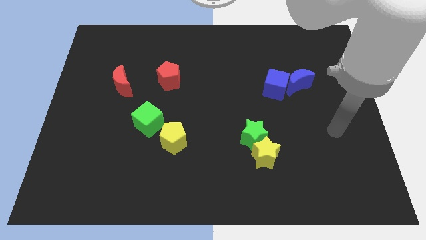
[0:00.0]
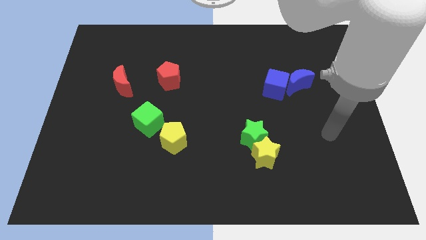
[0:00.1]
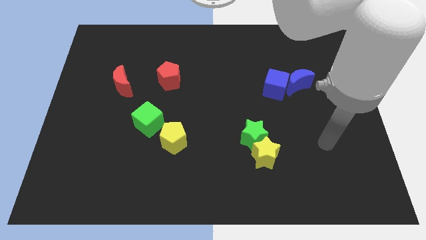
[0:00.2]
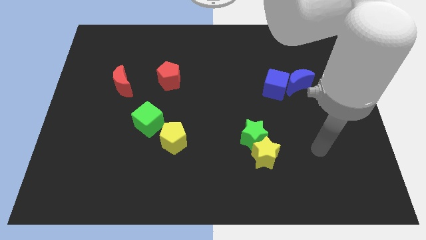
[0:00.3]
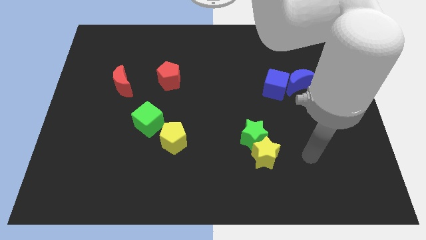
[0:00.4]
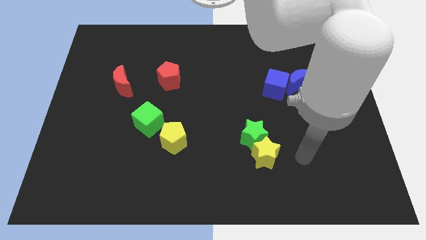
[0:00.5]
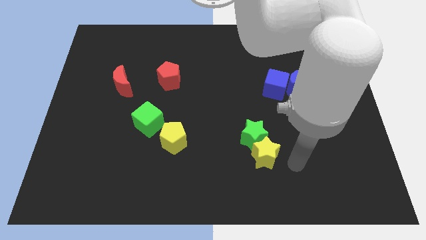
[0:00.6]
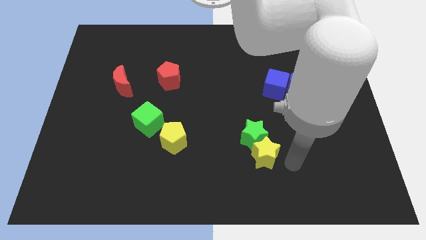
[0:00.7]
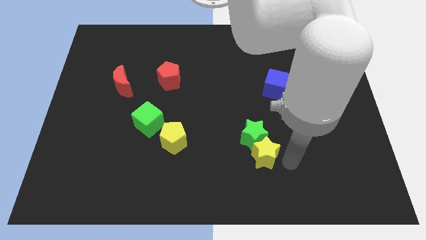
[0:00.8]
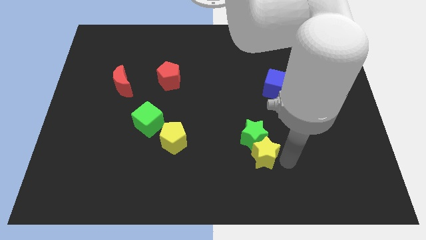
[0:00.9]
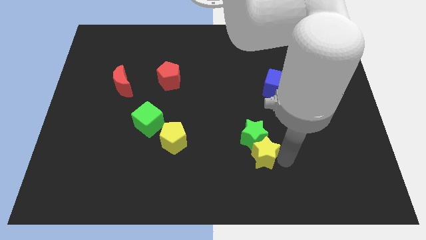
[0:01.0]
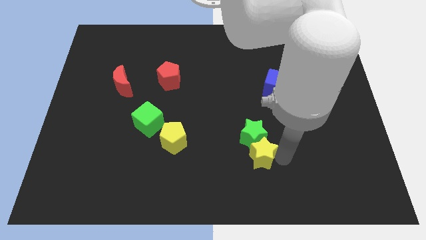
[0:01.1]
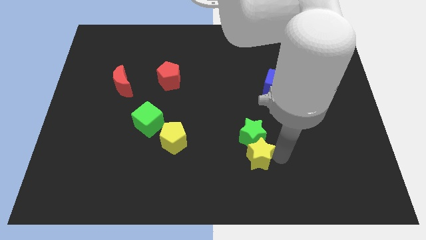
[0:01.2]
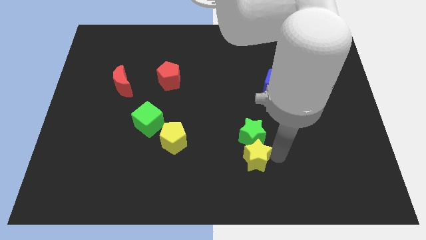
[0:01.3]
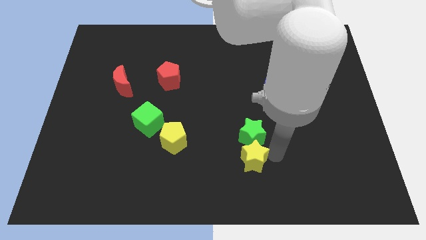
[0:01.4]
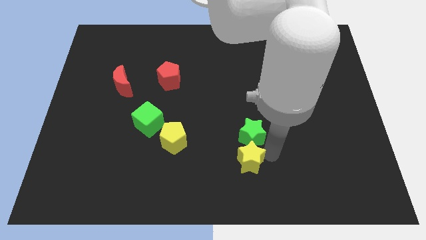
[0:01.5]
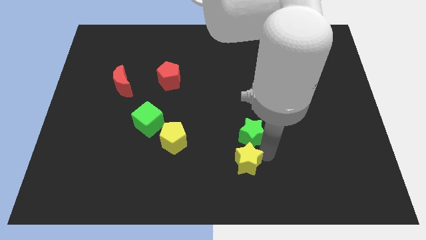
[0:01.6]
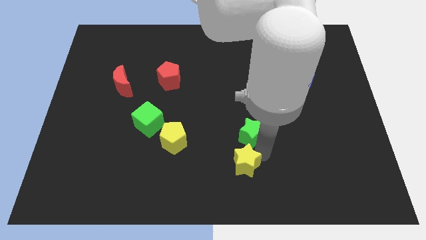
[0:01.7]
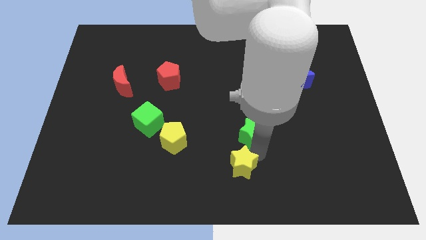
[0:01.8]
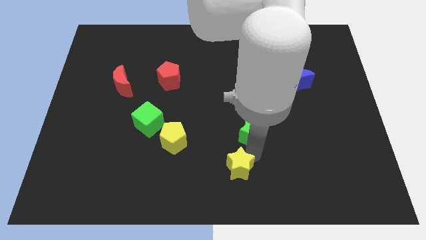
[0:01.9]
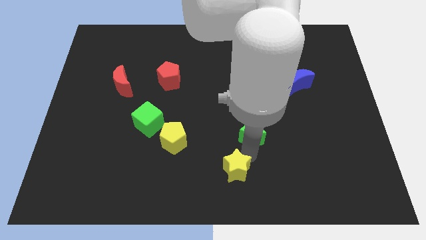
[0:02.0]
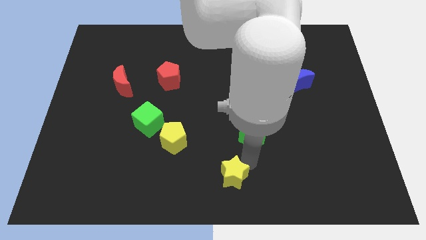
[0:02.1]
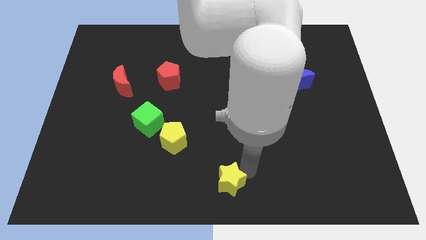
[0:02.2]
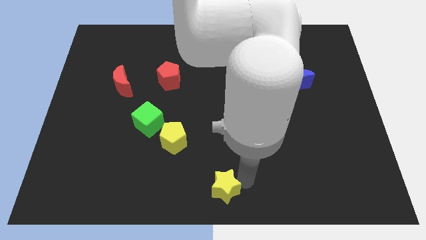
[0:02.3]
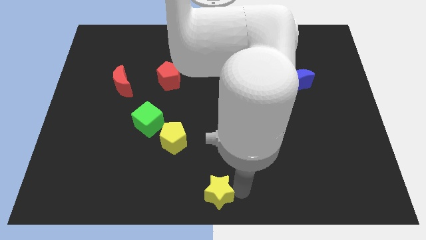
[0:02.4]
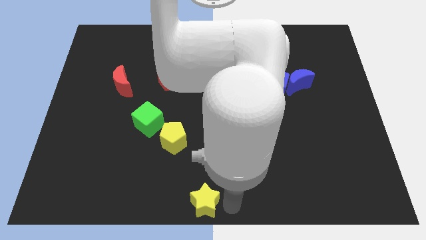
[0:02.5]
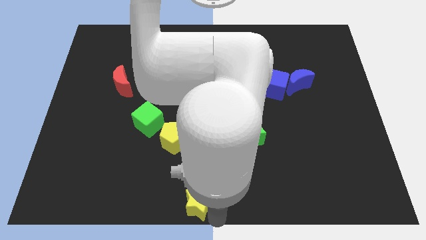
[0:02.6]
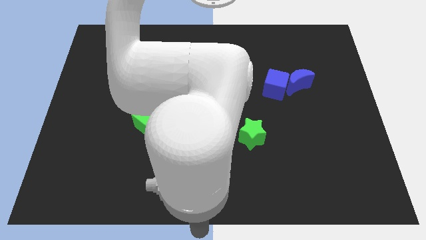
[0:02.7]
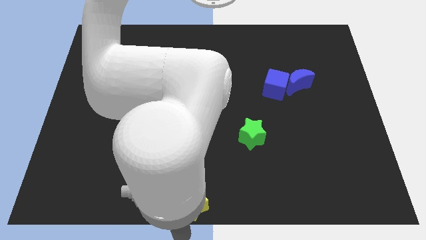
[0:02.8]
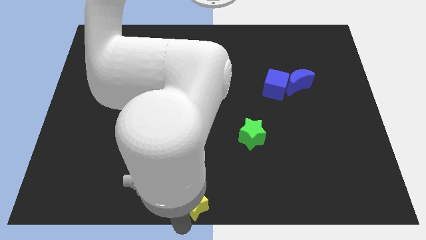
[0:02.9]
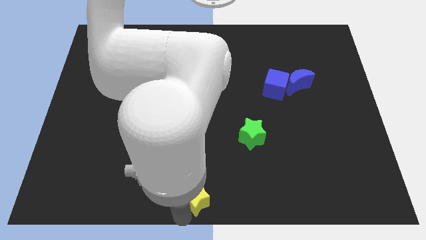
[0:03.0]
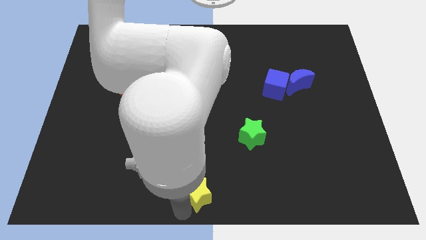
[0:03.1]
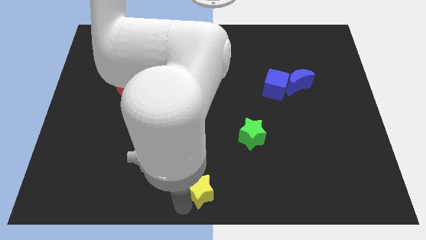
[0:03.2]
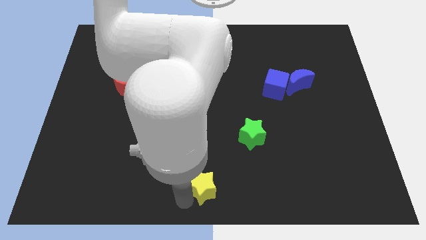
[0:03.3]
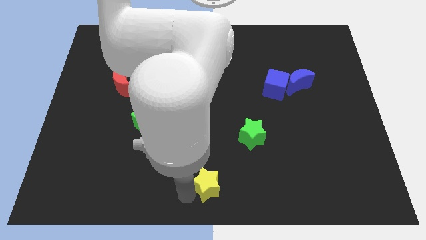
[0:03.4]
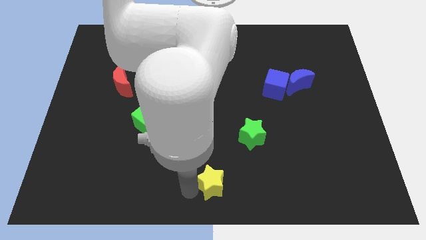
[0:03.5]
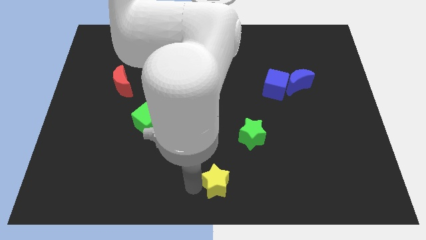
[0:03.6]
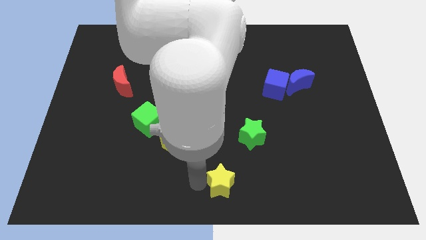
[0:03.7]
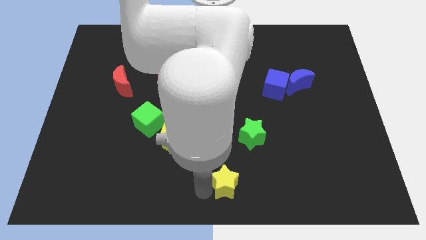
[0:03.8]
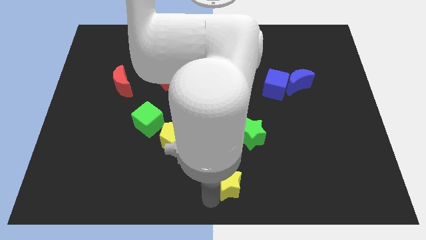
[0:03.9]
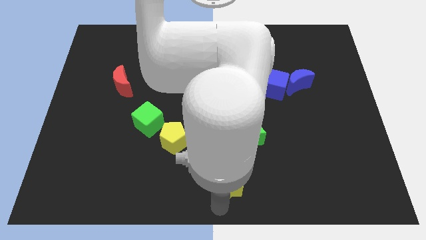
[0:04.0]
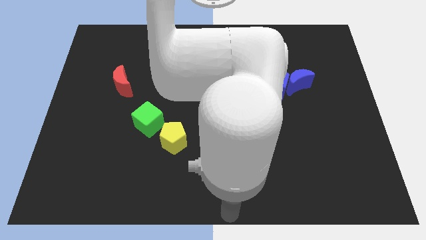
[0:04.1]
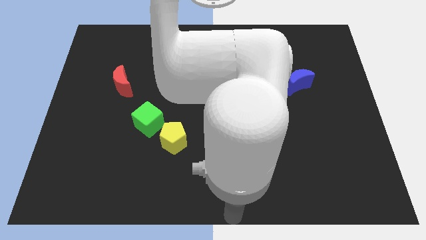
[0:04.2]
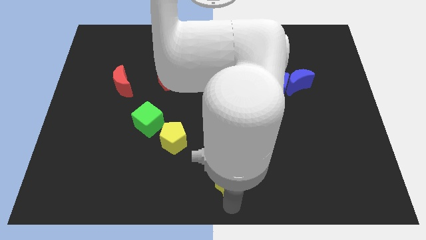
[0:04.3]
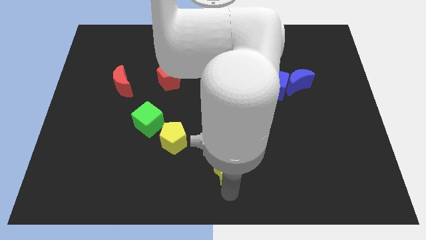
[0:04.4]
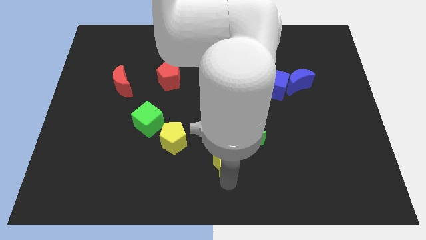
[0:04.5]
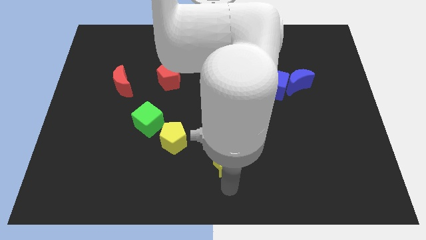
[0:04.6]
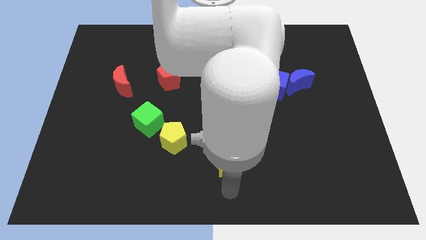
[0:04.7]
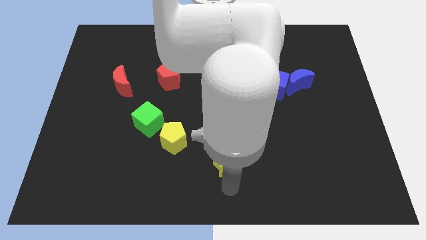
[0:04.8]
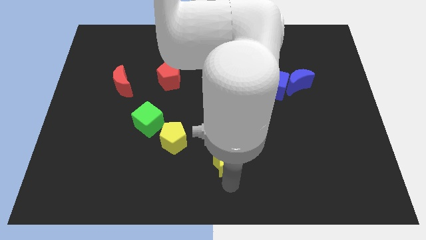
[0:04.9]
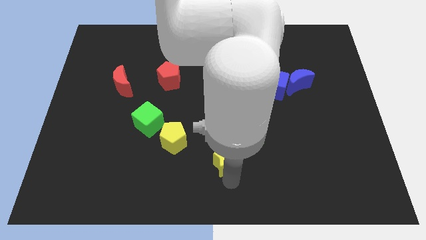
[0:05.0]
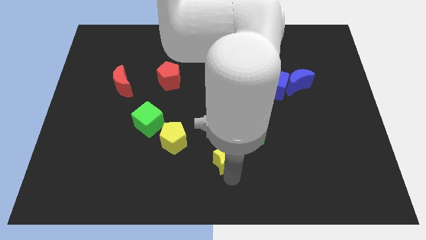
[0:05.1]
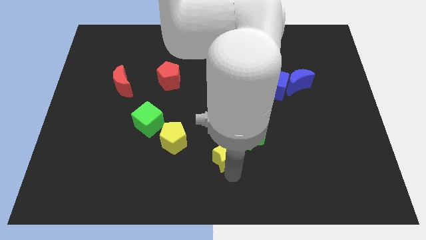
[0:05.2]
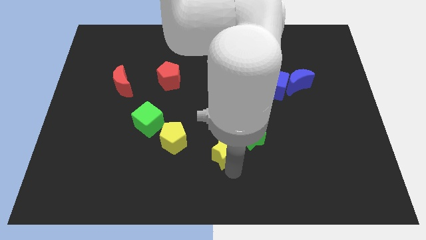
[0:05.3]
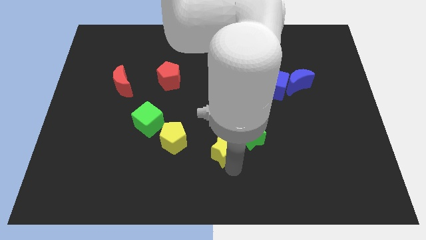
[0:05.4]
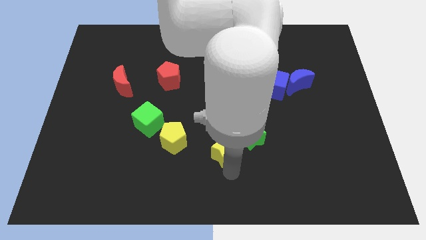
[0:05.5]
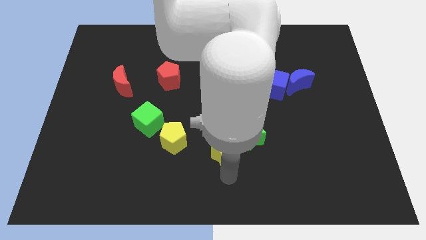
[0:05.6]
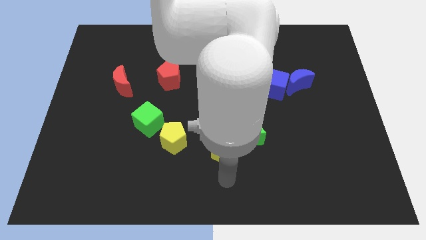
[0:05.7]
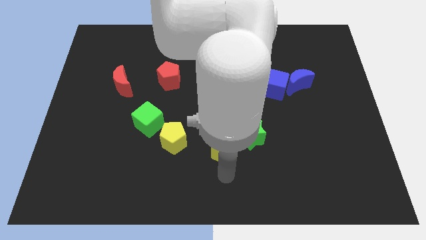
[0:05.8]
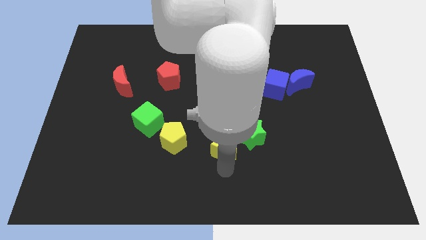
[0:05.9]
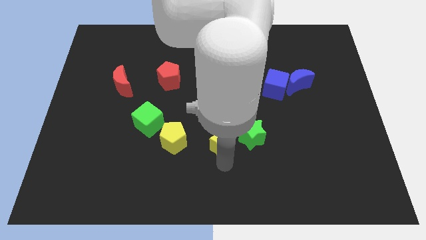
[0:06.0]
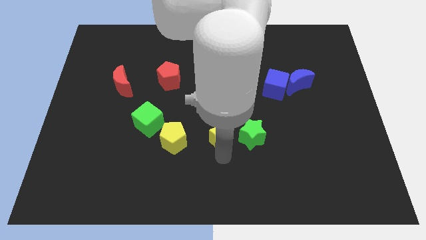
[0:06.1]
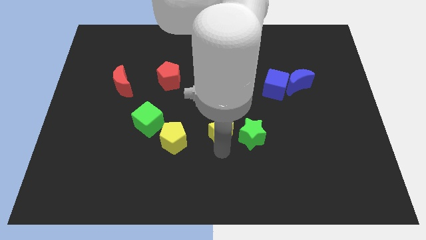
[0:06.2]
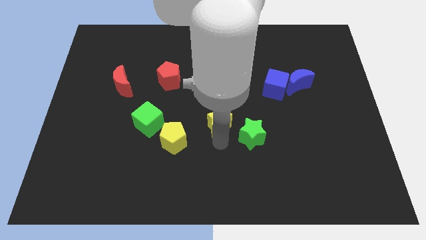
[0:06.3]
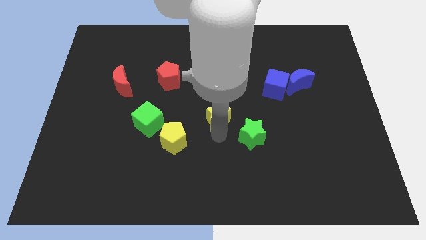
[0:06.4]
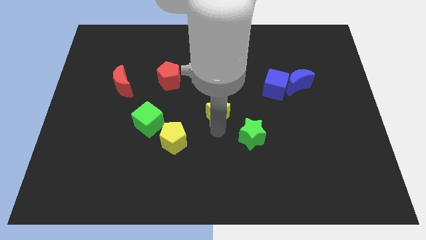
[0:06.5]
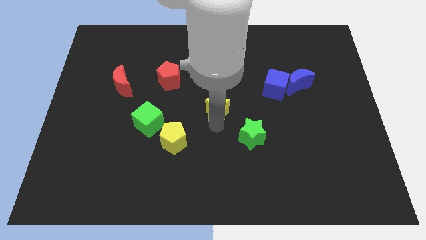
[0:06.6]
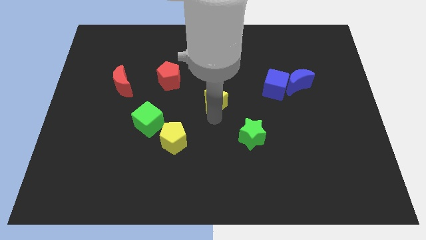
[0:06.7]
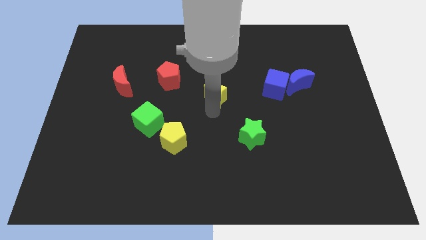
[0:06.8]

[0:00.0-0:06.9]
slide the yellow star just left of the blue cube

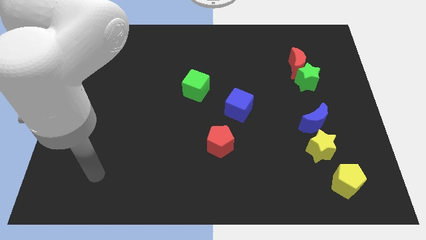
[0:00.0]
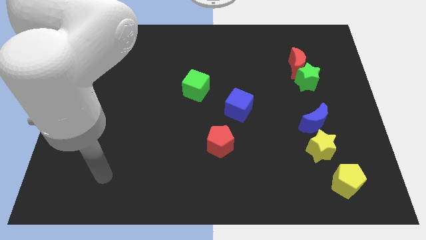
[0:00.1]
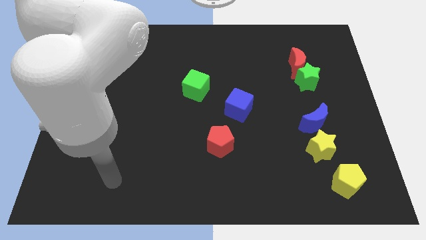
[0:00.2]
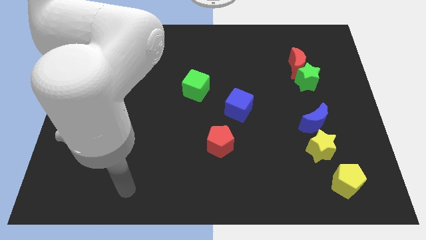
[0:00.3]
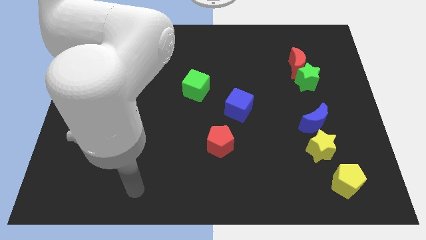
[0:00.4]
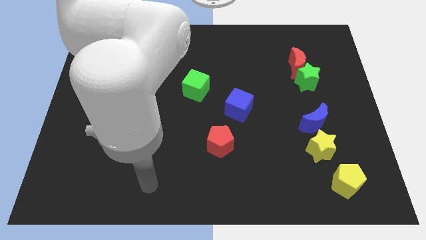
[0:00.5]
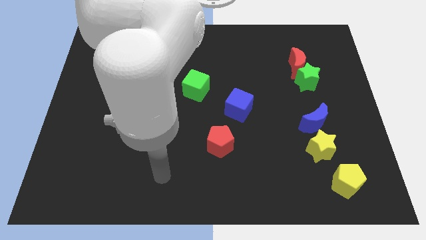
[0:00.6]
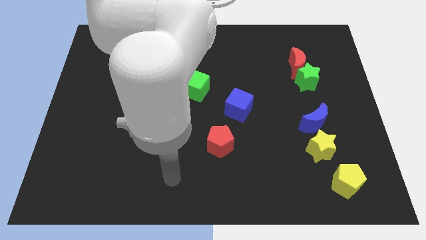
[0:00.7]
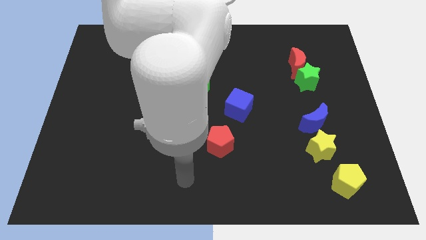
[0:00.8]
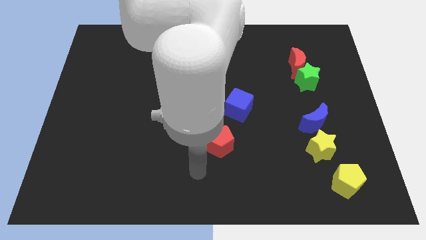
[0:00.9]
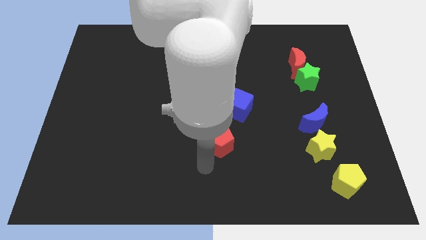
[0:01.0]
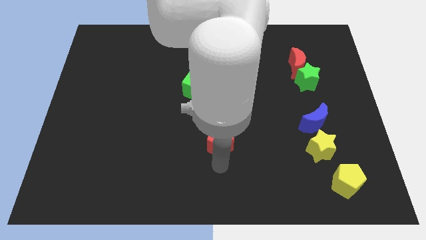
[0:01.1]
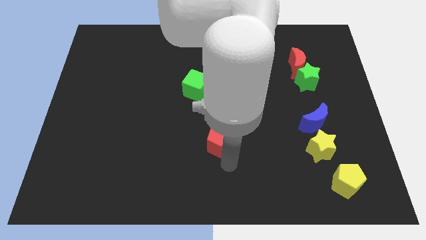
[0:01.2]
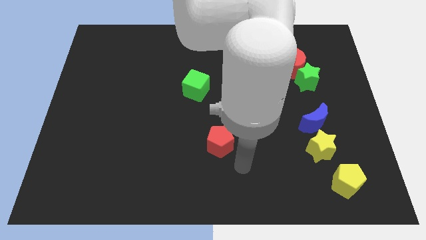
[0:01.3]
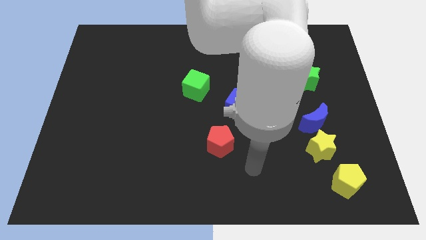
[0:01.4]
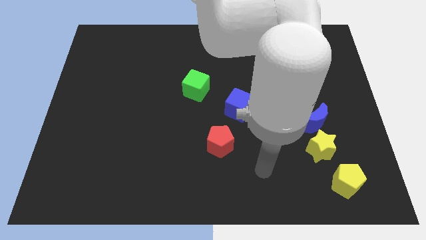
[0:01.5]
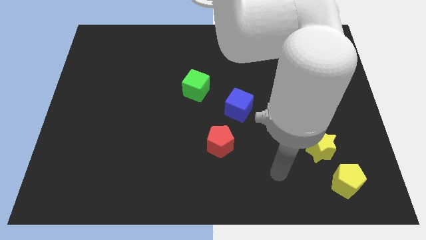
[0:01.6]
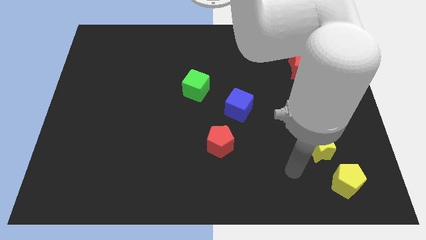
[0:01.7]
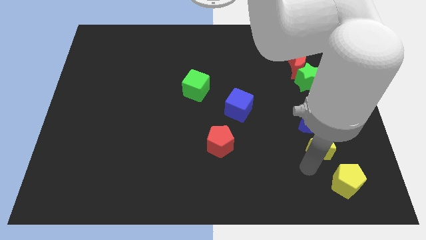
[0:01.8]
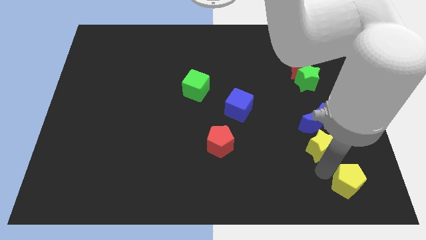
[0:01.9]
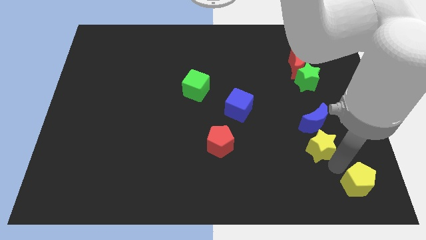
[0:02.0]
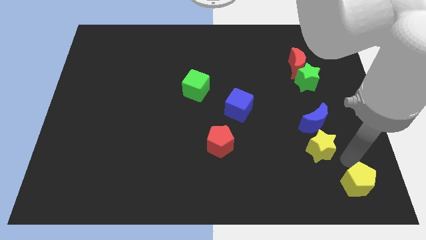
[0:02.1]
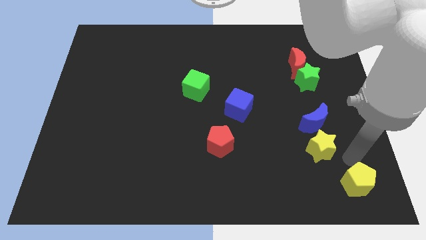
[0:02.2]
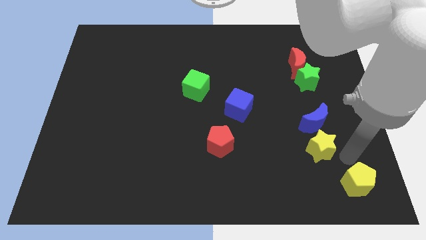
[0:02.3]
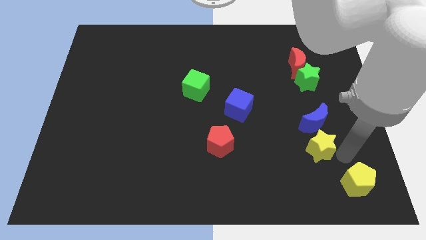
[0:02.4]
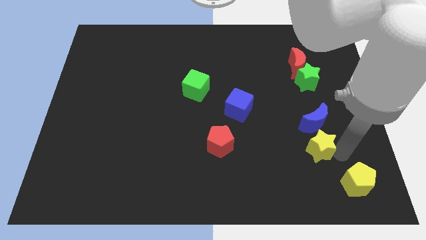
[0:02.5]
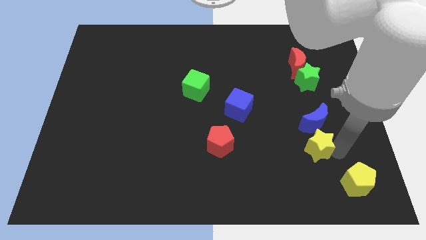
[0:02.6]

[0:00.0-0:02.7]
slide the yellow star to the bottom left of the blue moon
